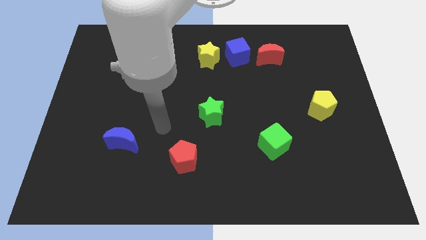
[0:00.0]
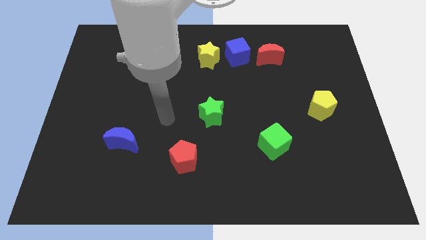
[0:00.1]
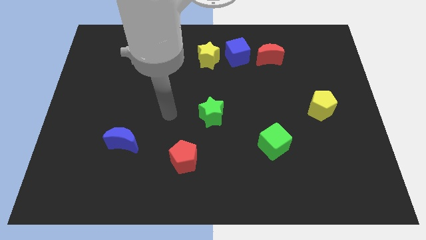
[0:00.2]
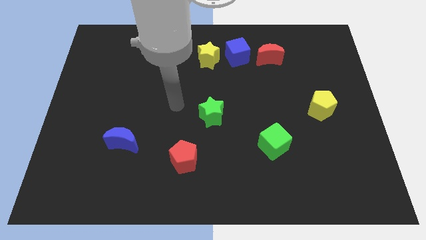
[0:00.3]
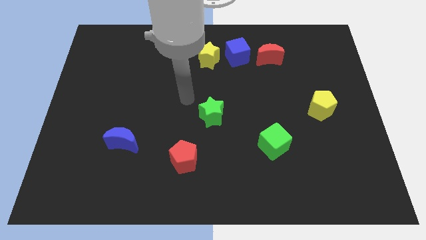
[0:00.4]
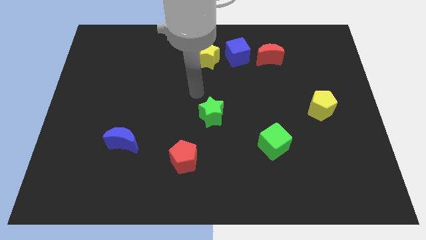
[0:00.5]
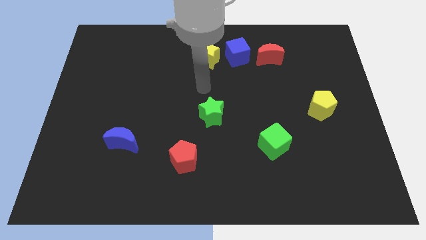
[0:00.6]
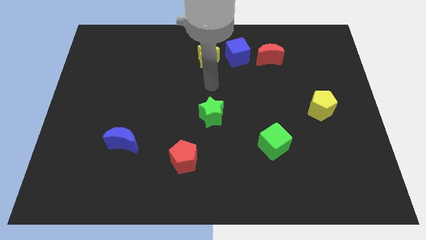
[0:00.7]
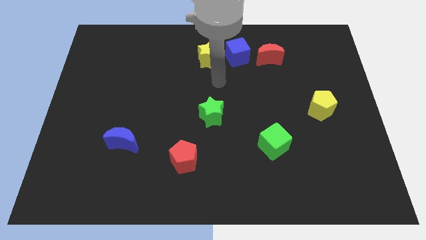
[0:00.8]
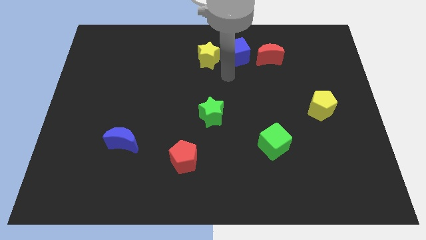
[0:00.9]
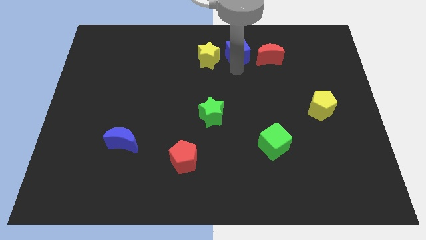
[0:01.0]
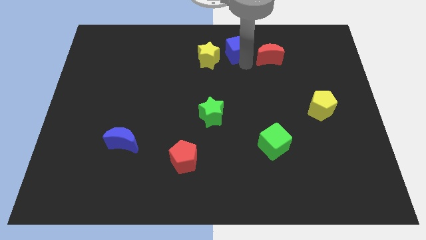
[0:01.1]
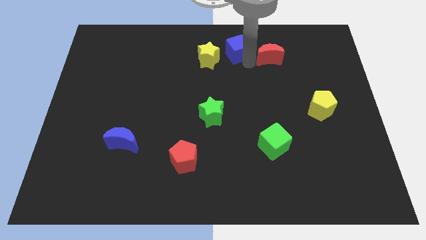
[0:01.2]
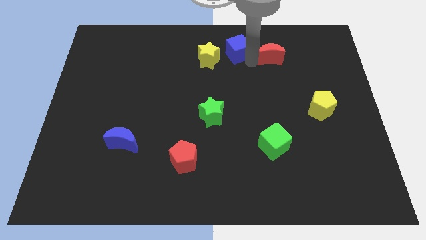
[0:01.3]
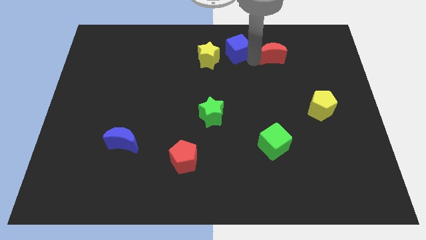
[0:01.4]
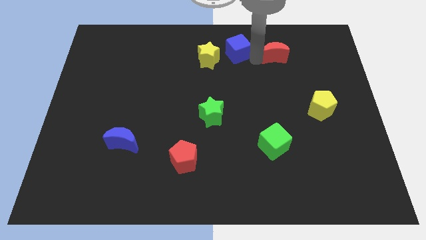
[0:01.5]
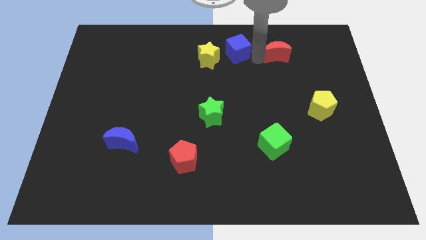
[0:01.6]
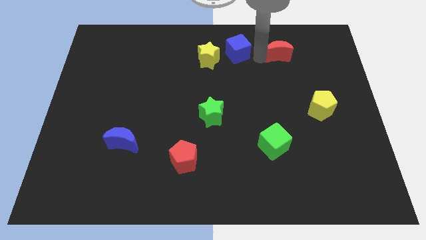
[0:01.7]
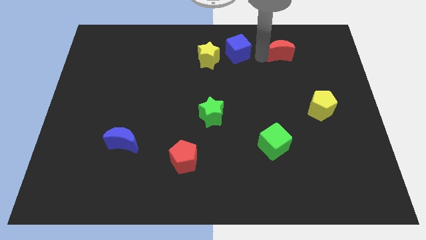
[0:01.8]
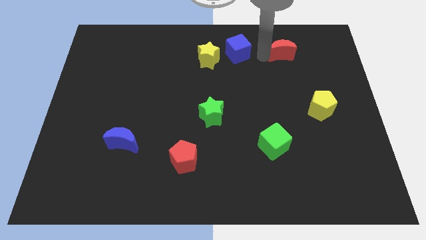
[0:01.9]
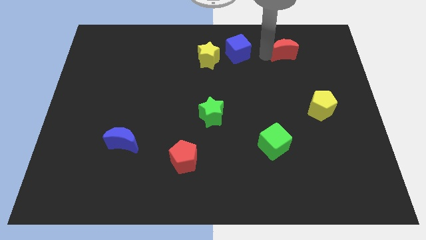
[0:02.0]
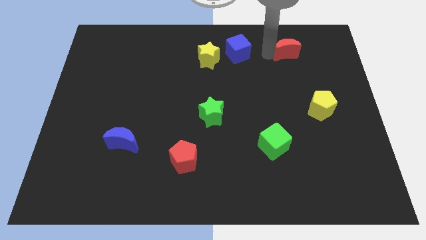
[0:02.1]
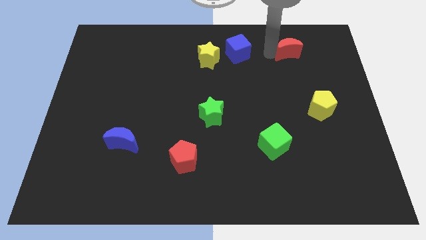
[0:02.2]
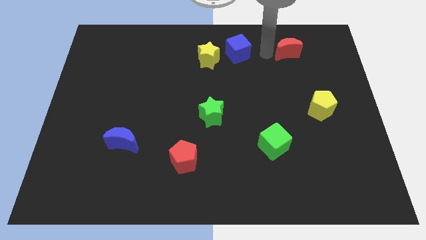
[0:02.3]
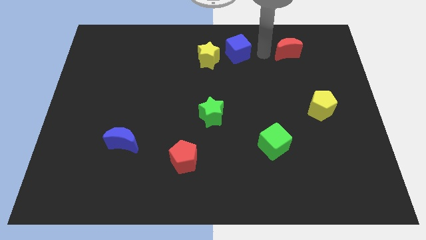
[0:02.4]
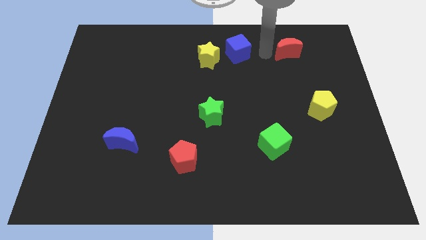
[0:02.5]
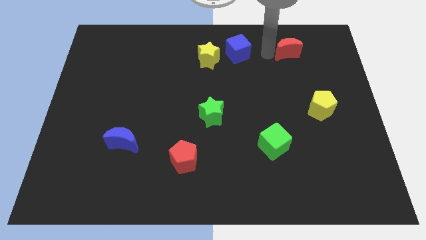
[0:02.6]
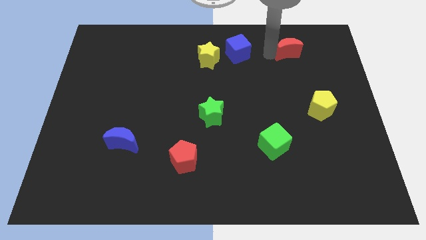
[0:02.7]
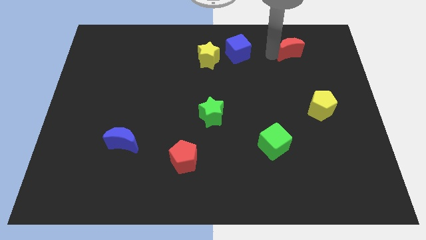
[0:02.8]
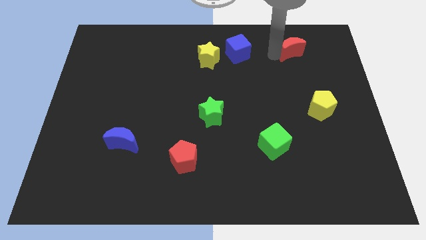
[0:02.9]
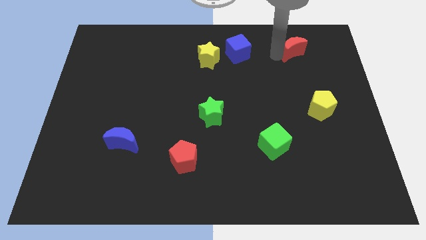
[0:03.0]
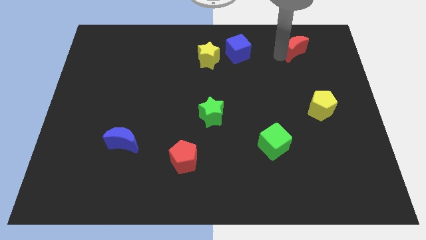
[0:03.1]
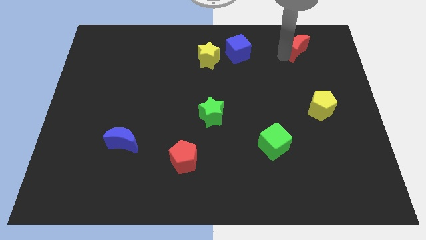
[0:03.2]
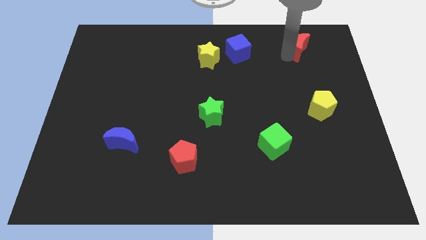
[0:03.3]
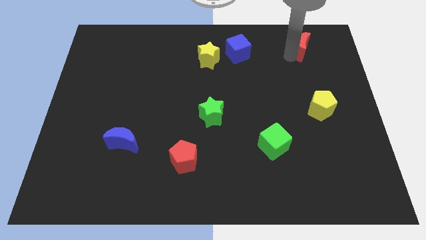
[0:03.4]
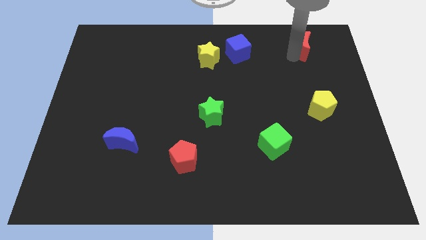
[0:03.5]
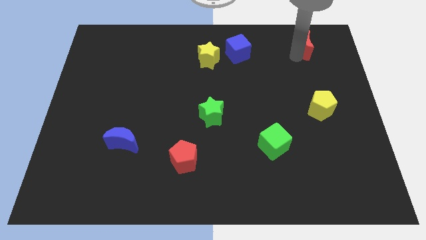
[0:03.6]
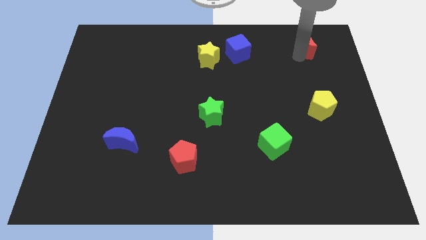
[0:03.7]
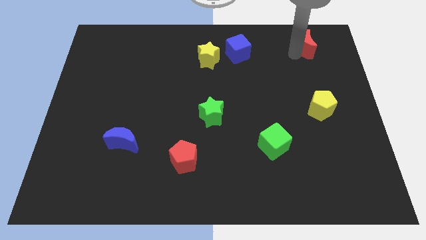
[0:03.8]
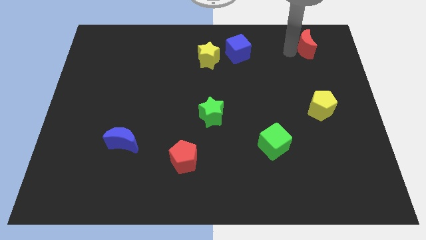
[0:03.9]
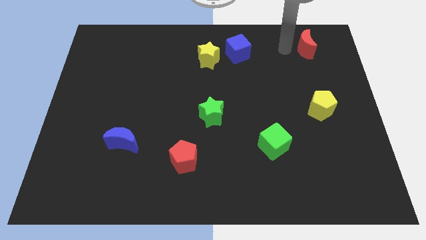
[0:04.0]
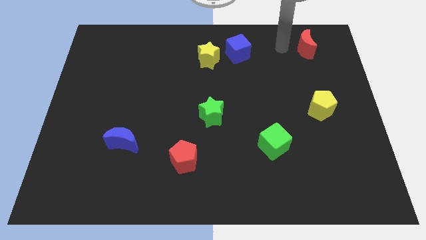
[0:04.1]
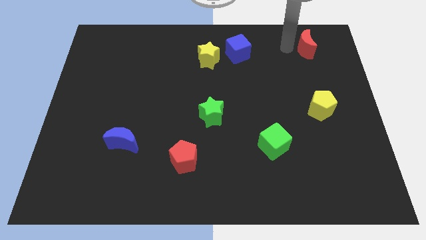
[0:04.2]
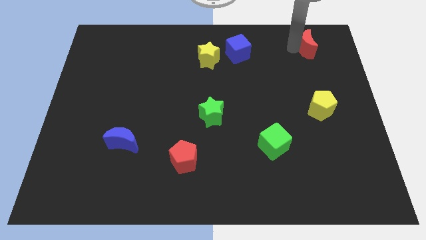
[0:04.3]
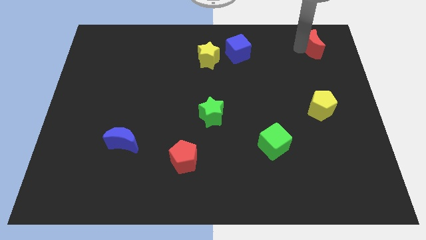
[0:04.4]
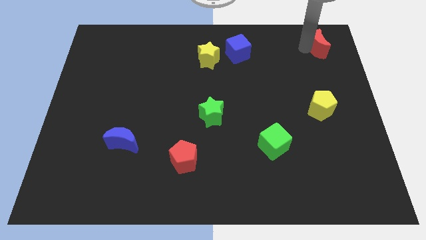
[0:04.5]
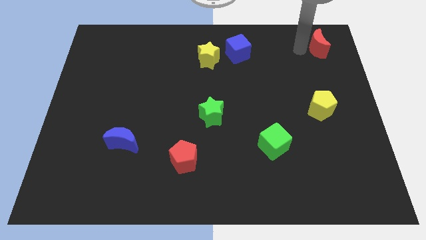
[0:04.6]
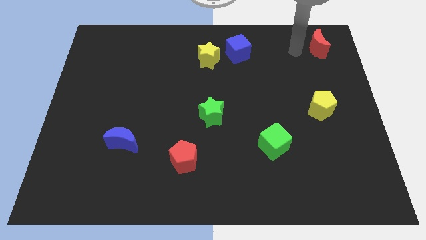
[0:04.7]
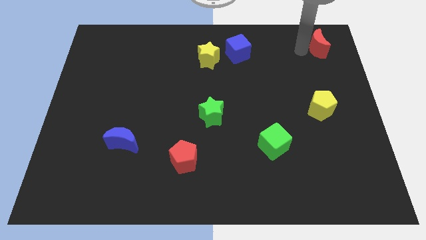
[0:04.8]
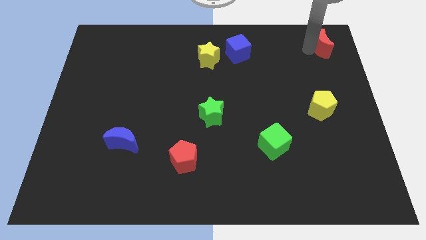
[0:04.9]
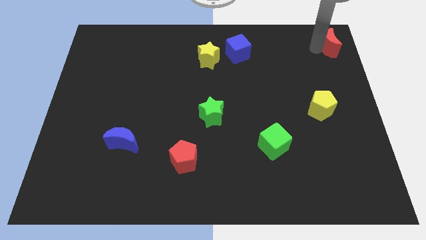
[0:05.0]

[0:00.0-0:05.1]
move the red moon to the top right corner

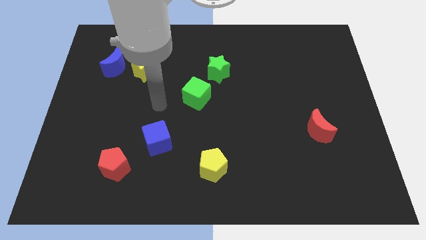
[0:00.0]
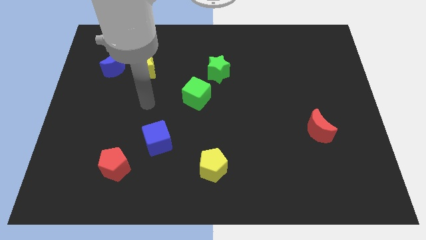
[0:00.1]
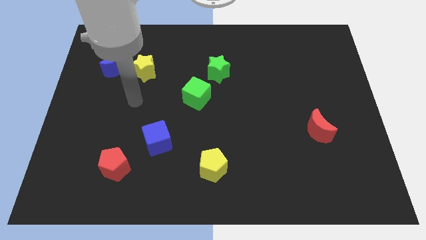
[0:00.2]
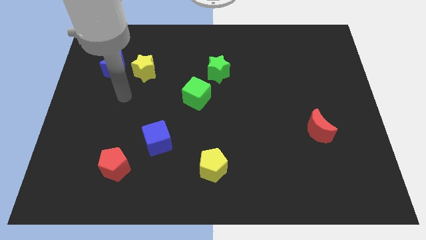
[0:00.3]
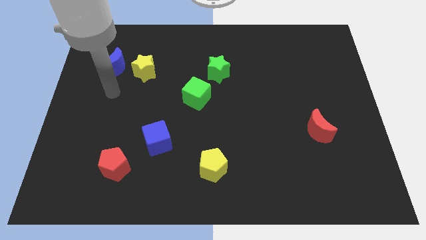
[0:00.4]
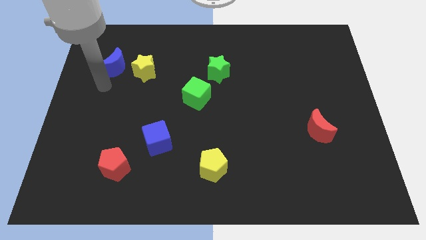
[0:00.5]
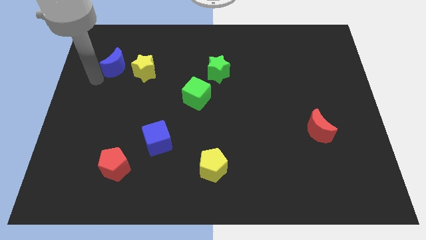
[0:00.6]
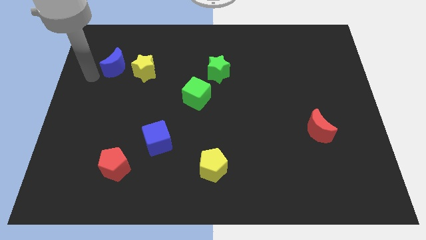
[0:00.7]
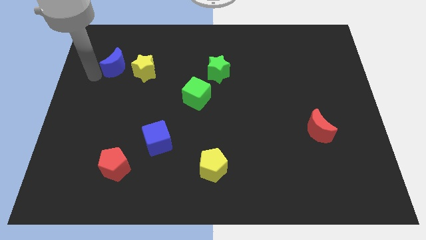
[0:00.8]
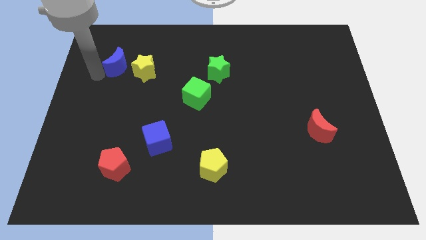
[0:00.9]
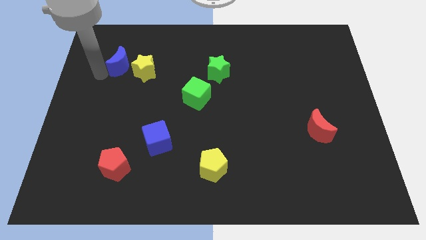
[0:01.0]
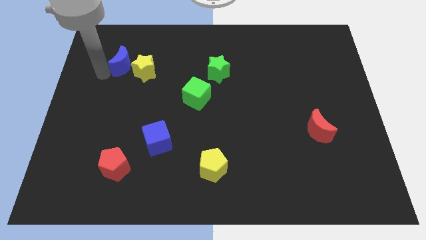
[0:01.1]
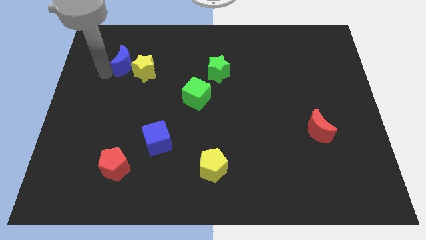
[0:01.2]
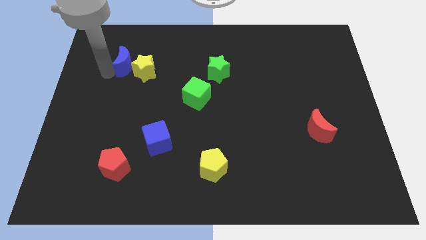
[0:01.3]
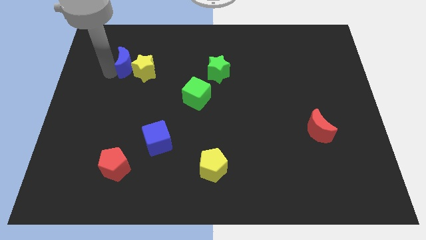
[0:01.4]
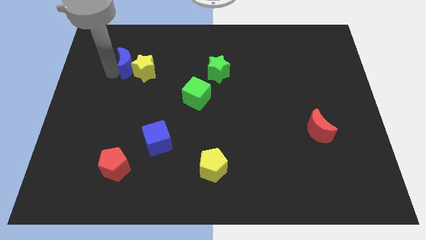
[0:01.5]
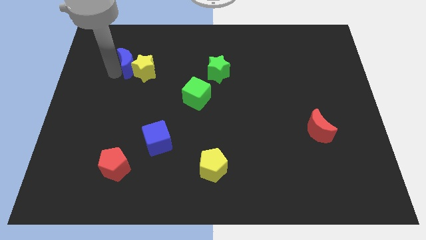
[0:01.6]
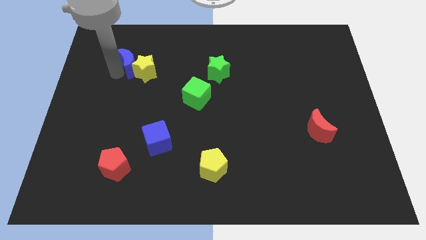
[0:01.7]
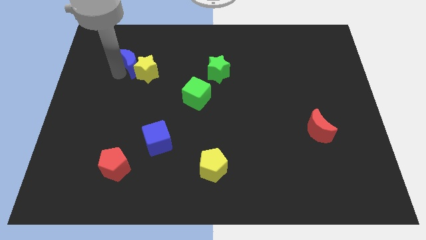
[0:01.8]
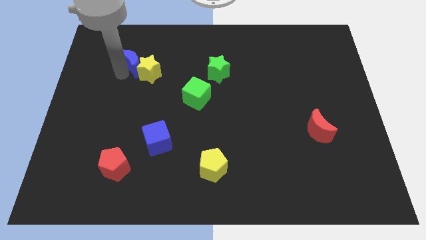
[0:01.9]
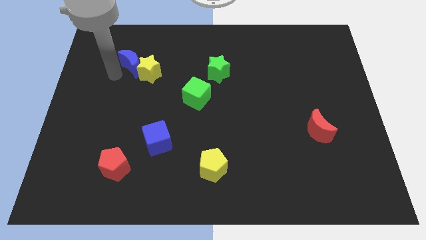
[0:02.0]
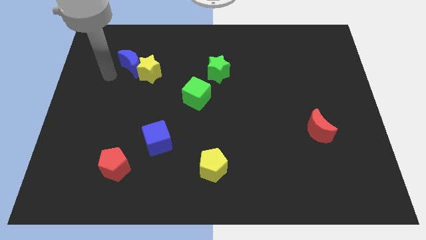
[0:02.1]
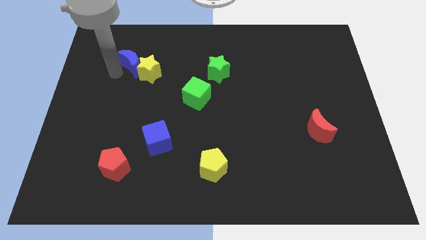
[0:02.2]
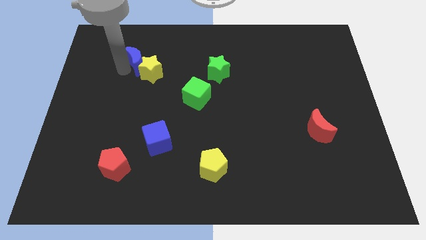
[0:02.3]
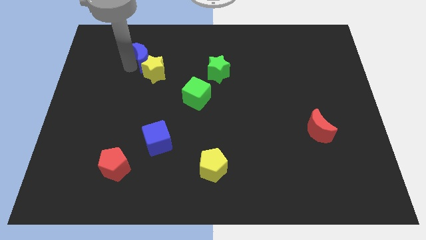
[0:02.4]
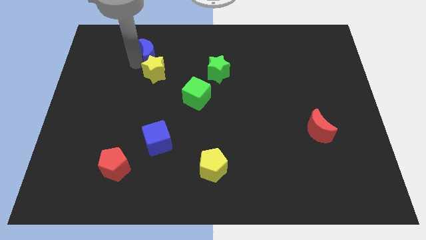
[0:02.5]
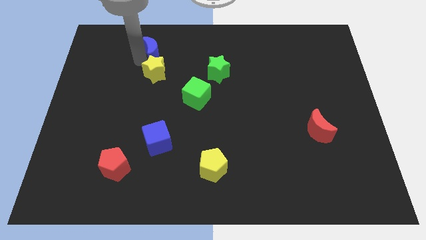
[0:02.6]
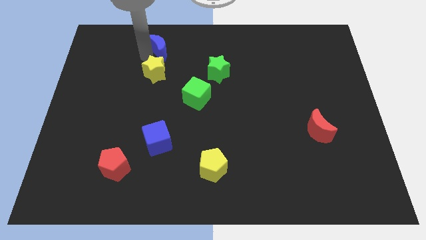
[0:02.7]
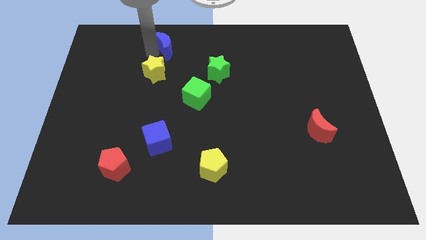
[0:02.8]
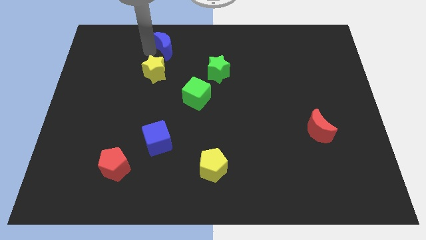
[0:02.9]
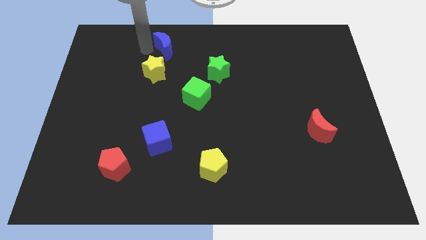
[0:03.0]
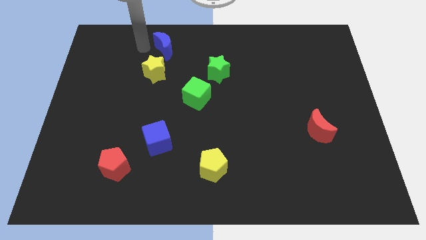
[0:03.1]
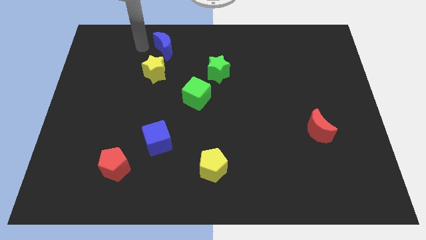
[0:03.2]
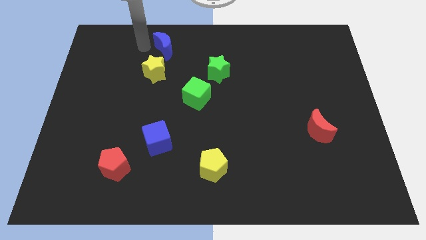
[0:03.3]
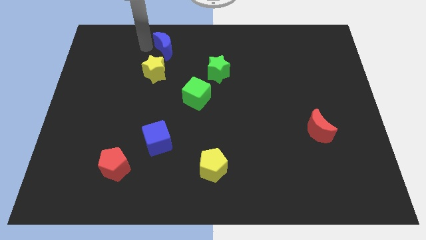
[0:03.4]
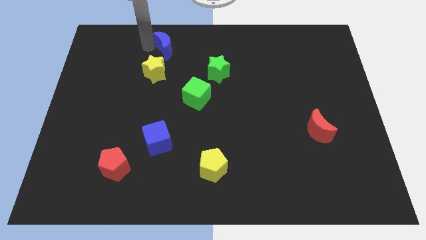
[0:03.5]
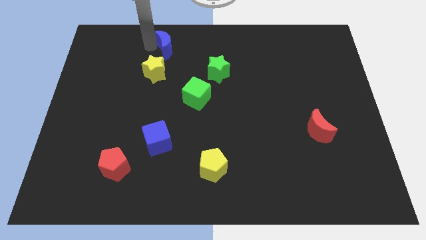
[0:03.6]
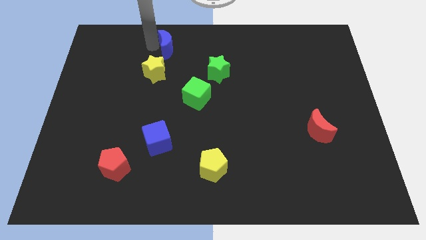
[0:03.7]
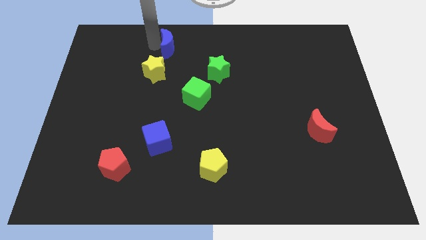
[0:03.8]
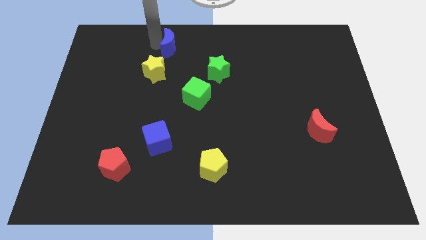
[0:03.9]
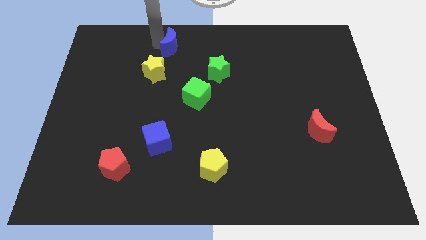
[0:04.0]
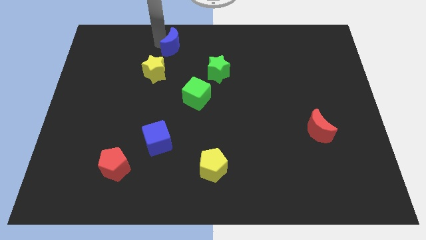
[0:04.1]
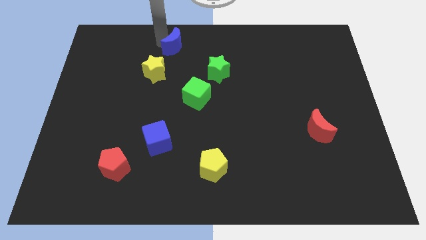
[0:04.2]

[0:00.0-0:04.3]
slide the blue moon to the top side
